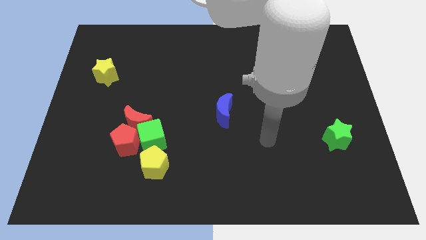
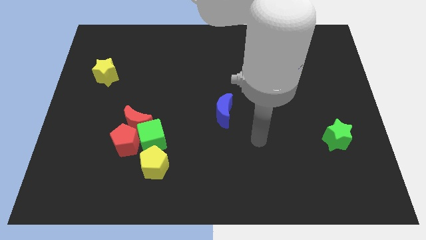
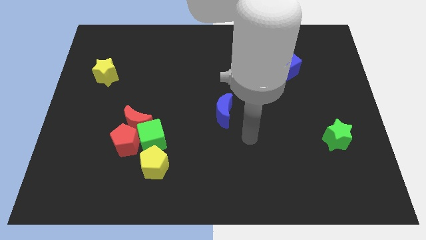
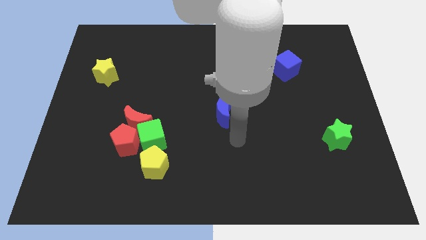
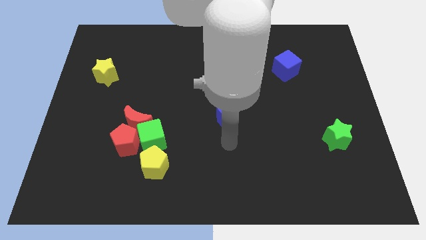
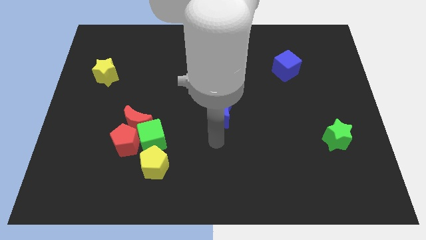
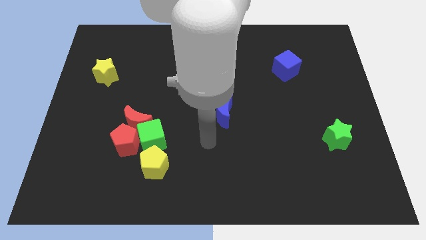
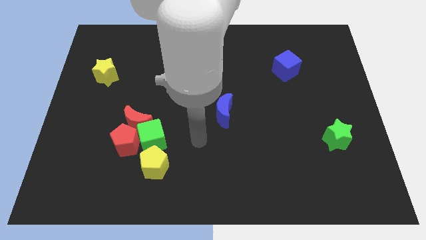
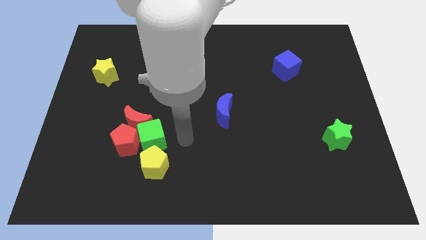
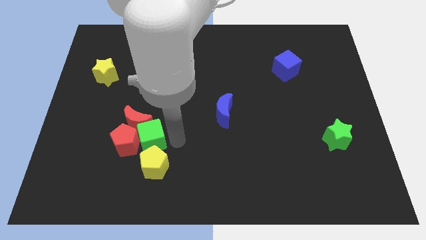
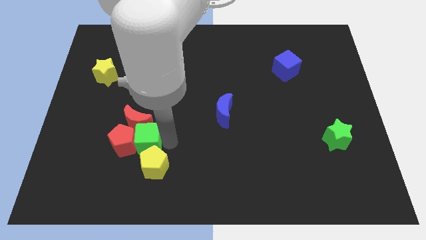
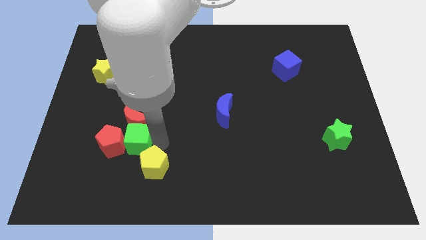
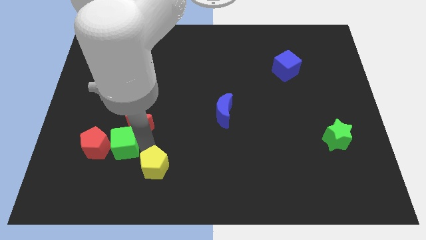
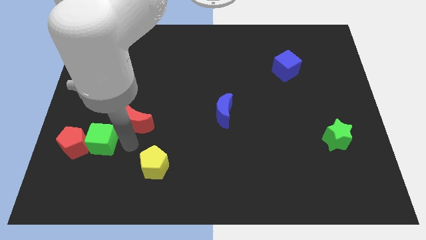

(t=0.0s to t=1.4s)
pull the red moon apart from the green cube and red pentagon

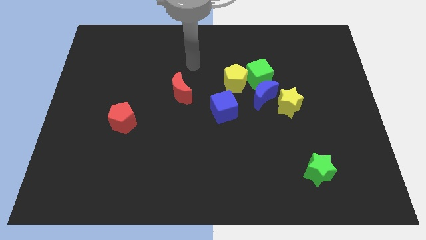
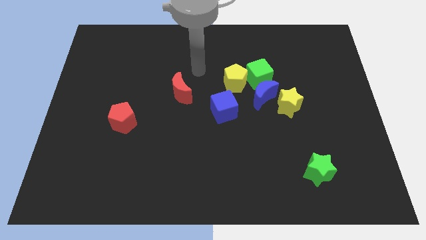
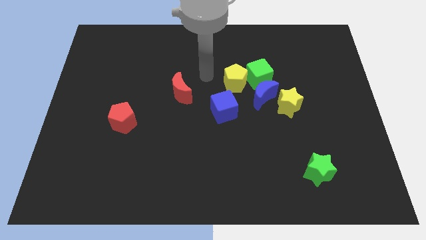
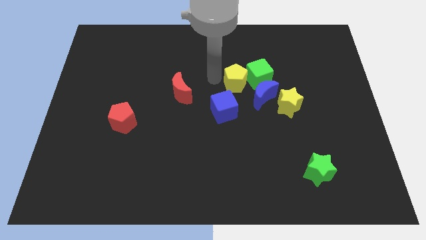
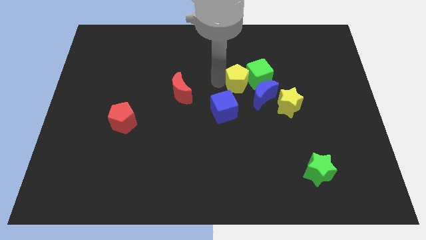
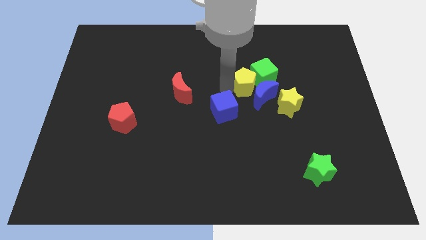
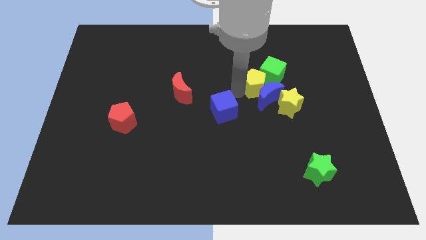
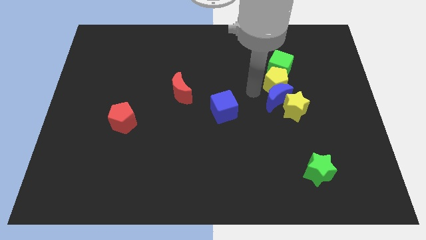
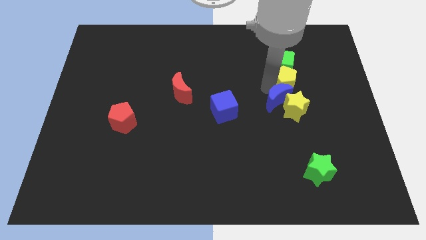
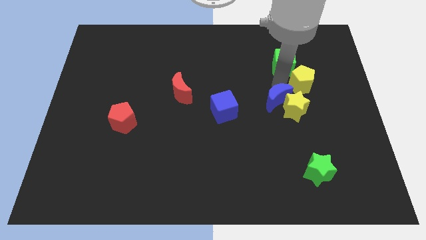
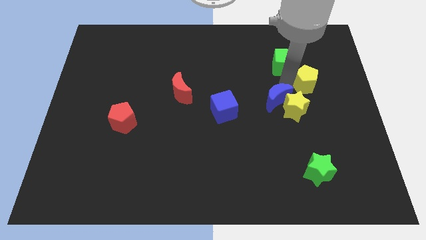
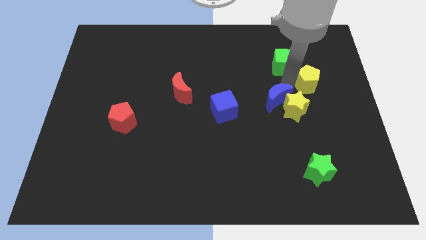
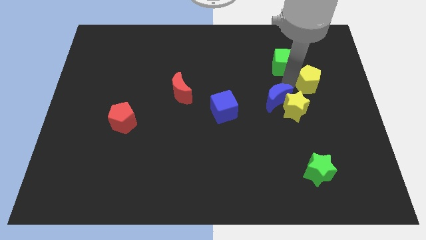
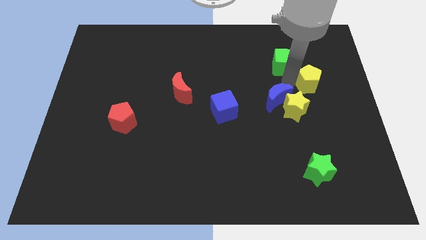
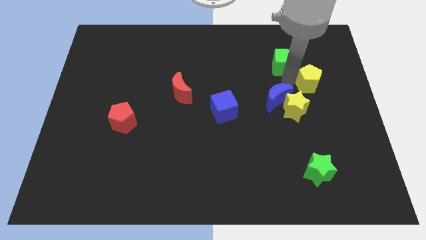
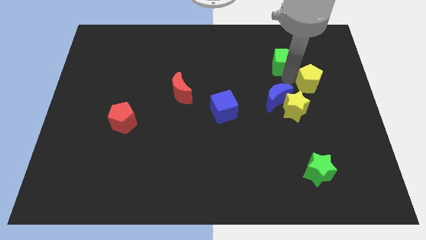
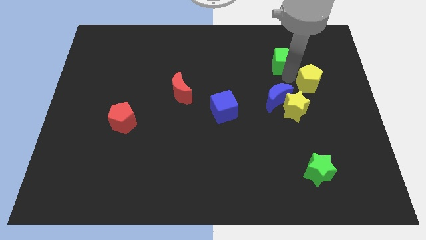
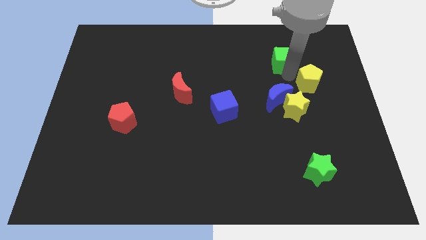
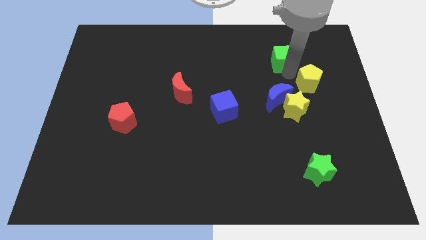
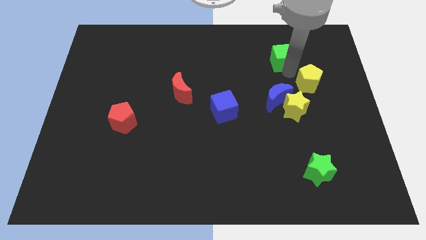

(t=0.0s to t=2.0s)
separate the green cube from the yellow pentagon and blue moon

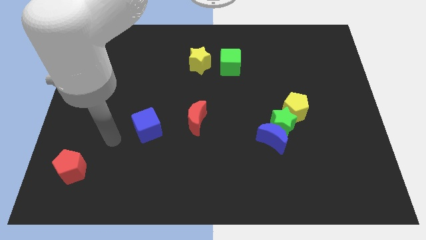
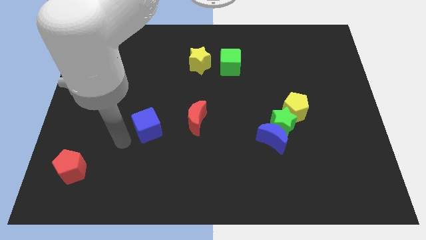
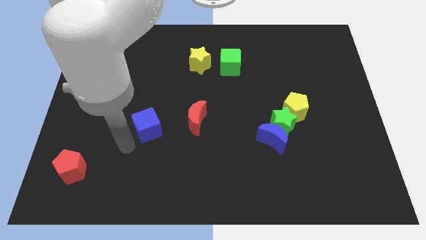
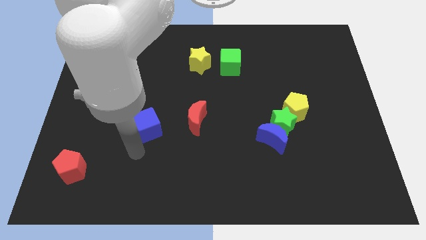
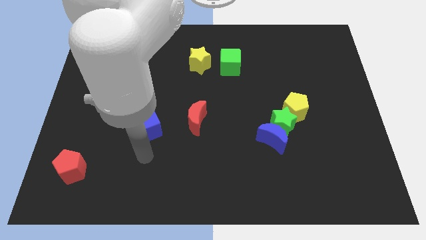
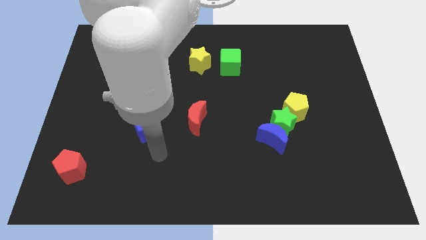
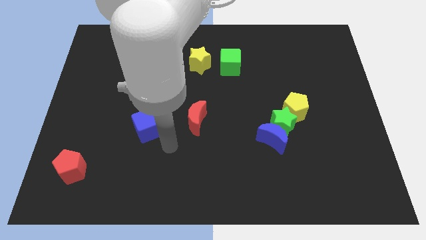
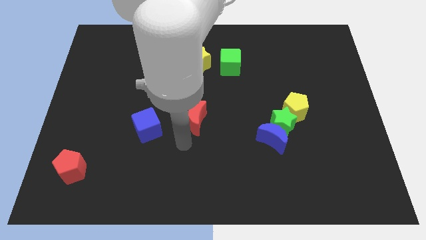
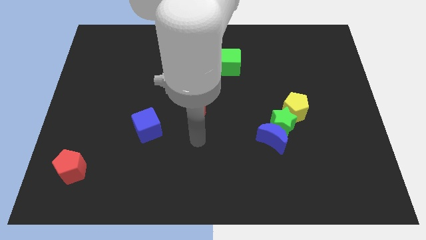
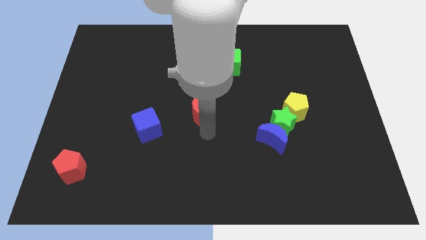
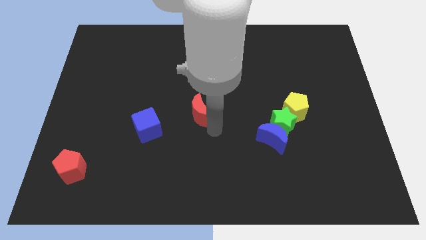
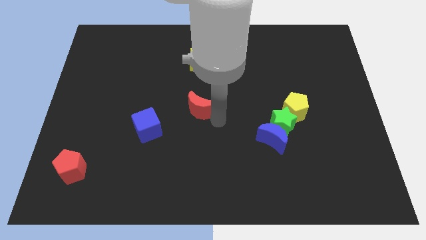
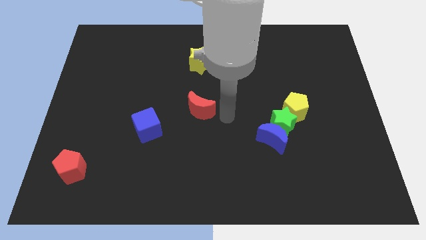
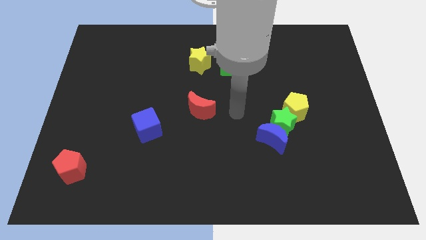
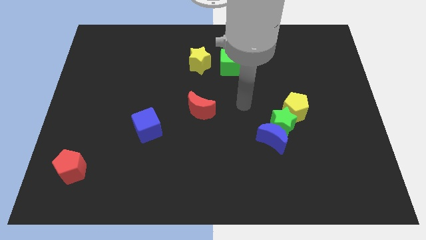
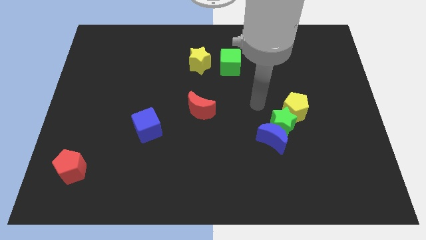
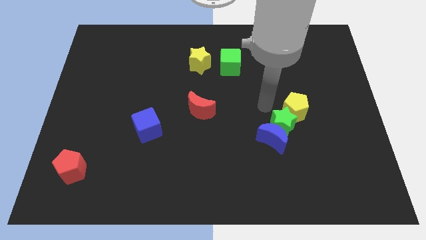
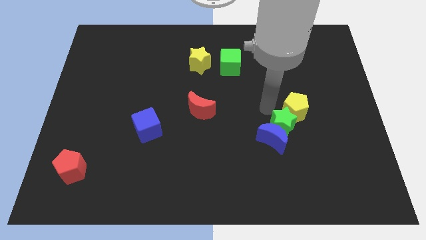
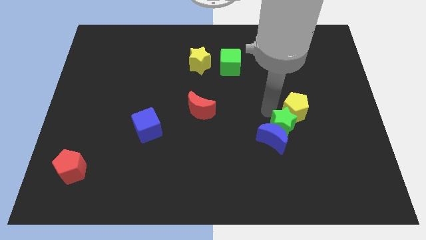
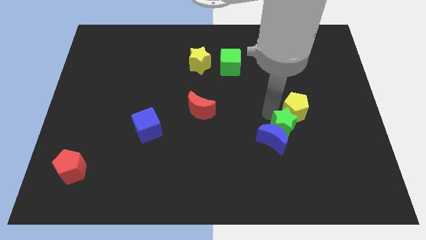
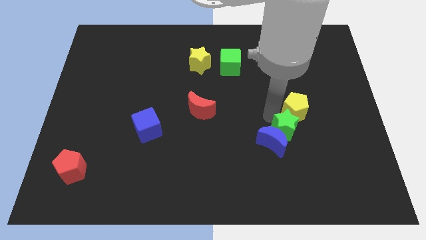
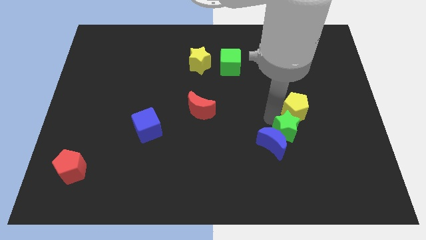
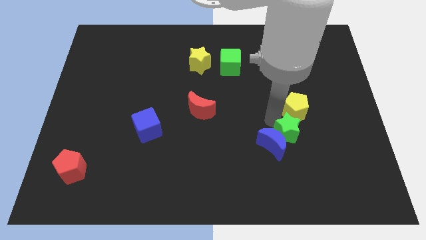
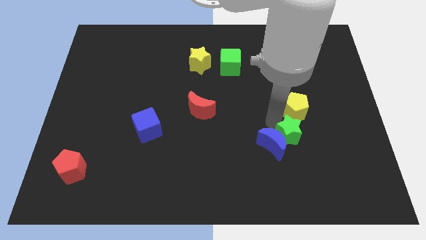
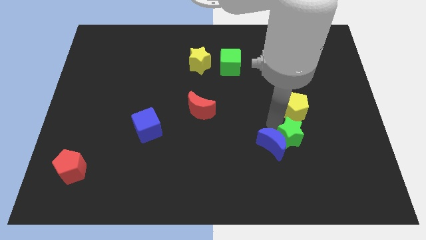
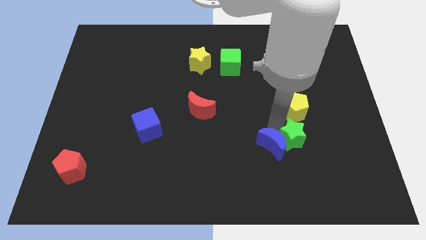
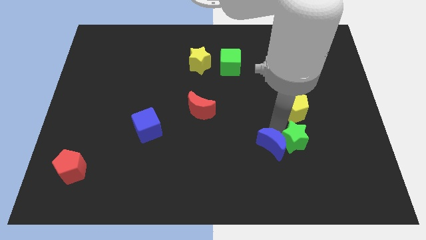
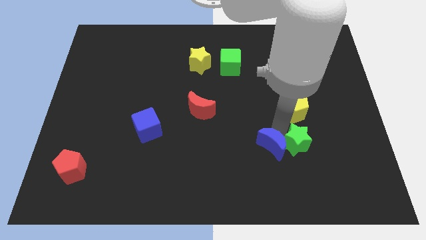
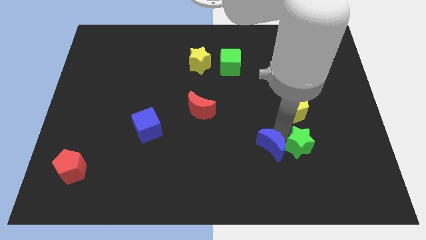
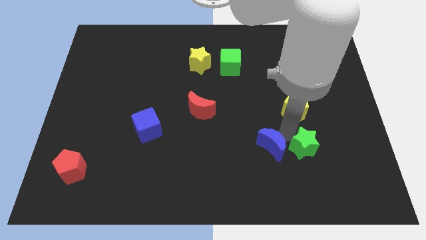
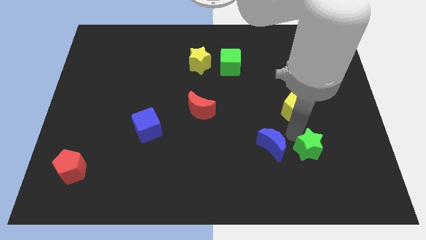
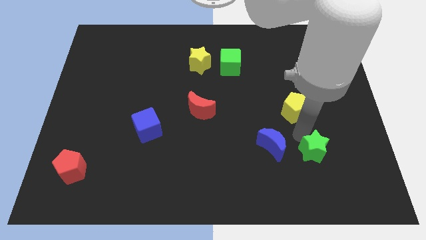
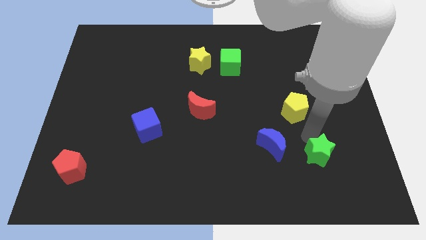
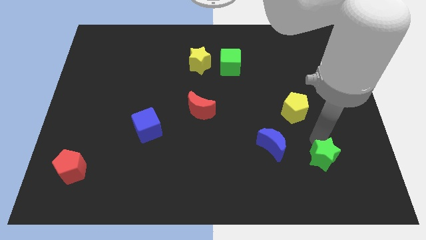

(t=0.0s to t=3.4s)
move the green star away from the blue moon and yellow pentagon

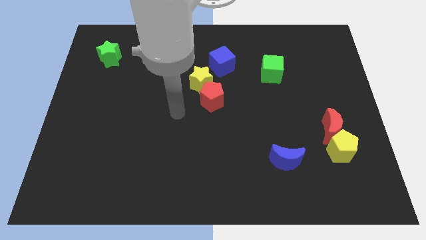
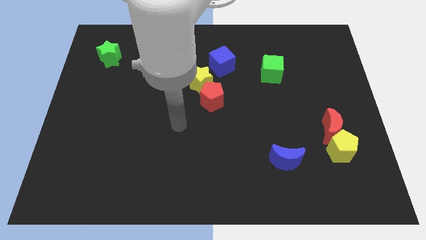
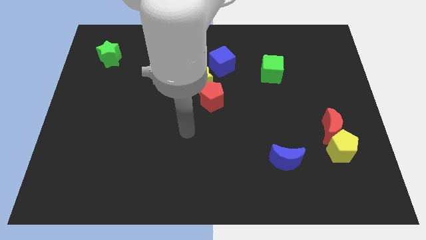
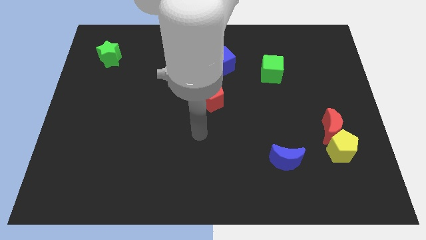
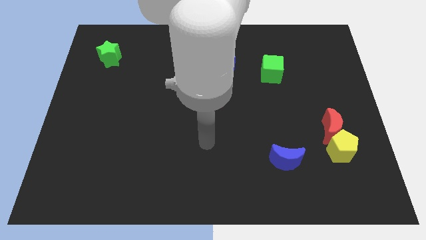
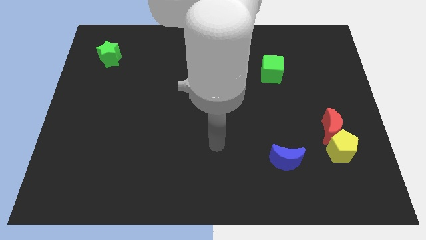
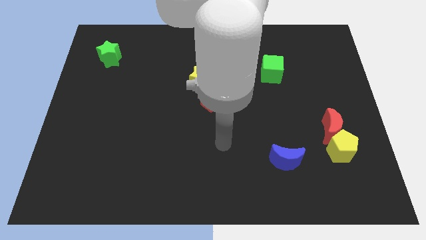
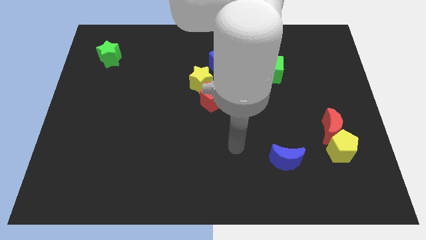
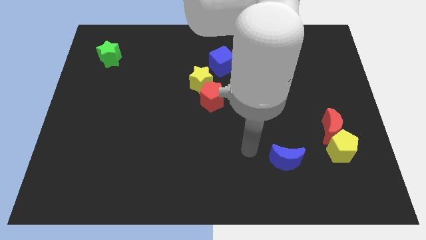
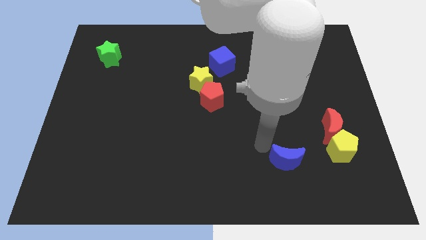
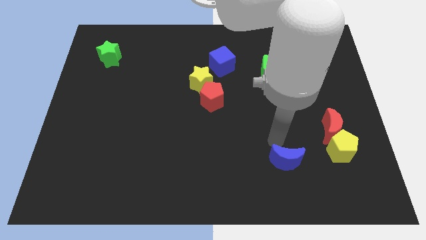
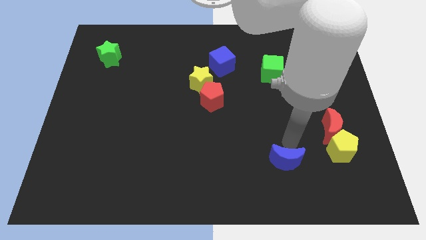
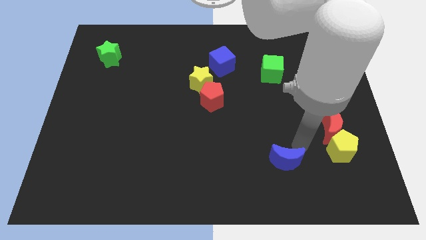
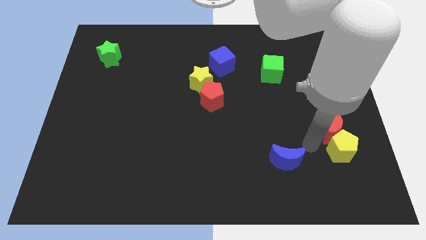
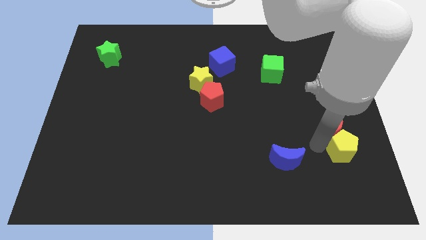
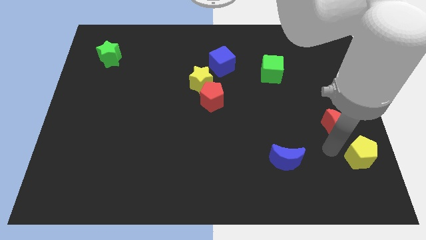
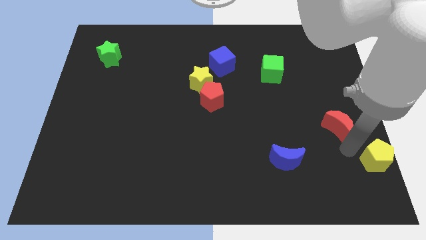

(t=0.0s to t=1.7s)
separate the red moon from the yellow pentagon

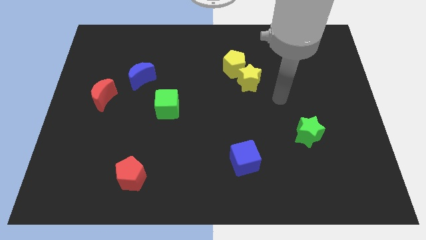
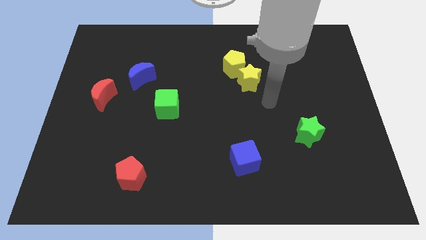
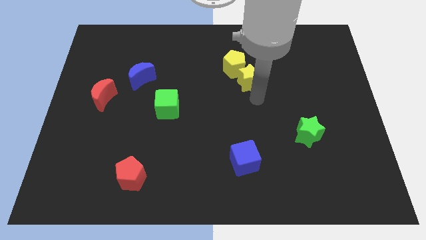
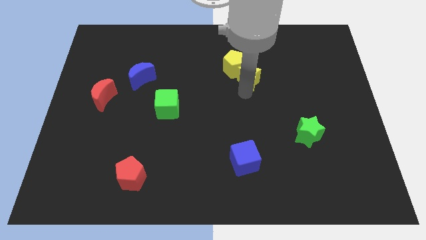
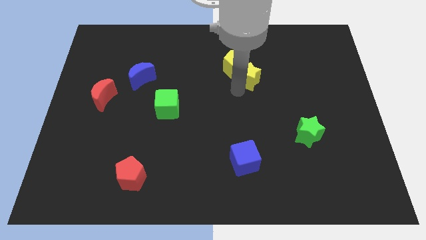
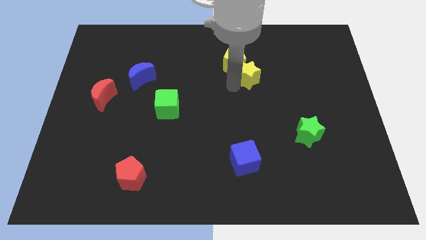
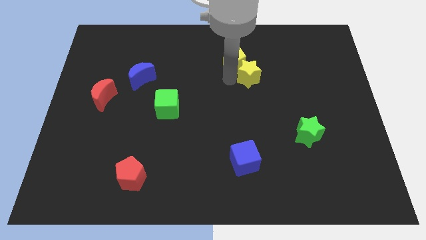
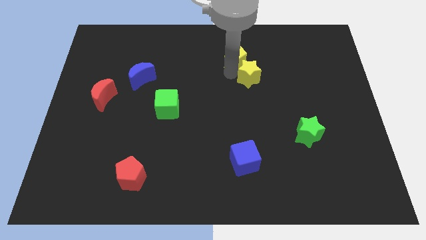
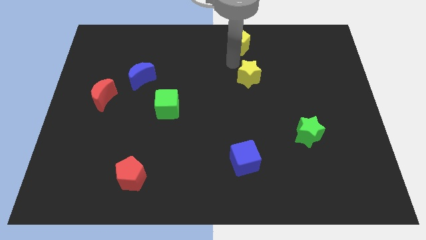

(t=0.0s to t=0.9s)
pull the yellow star apart from the yellow pentagon
